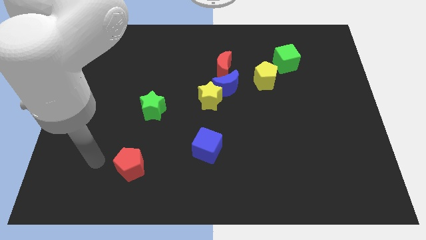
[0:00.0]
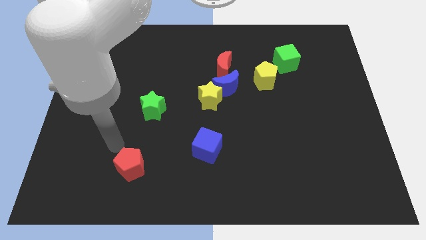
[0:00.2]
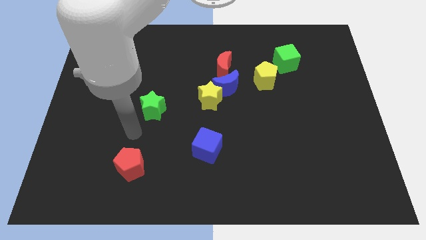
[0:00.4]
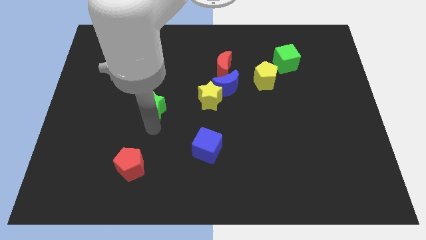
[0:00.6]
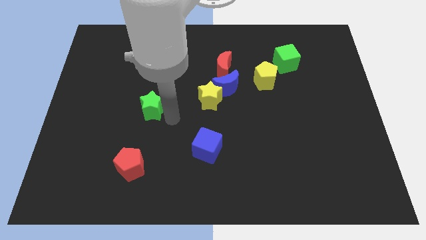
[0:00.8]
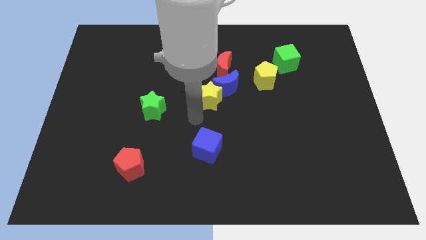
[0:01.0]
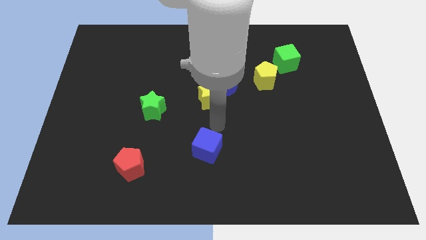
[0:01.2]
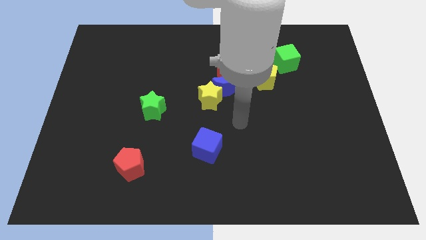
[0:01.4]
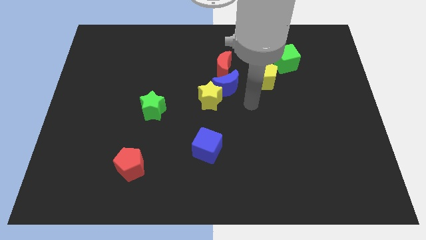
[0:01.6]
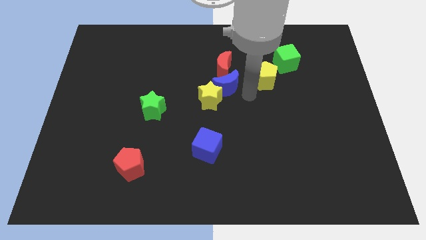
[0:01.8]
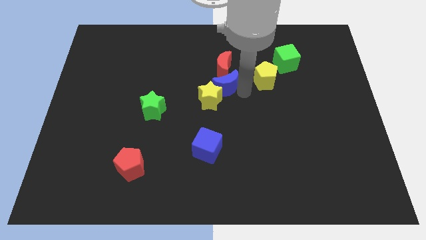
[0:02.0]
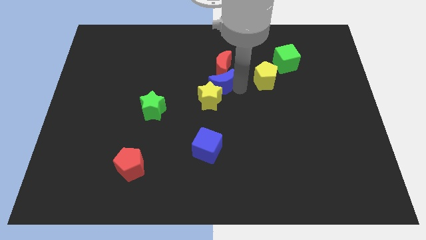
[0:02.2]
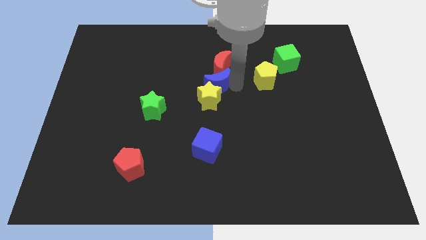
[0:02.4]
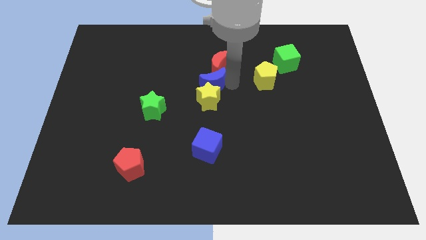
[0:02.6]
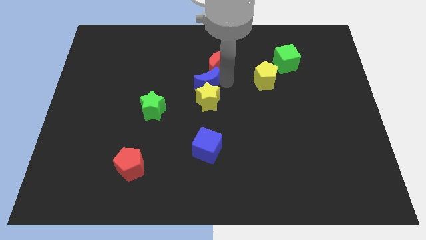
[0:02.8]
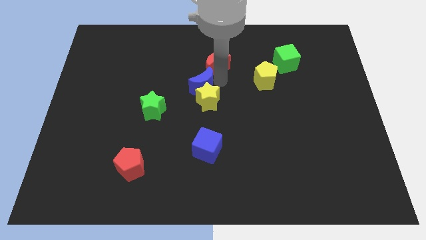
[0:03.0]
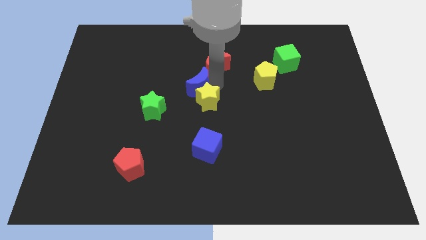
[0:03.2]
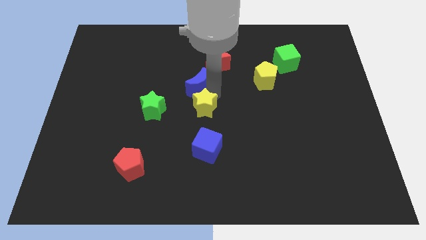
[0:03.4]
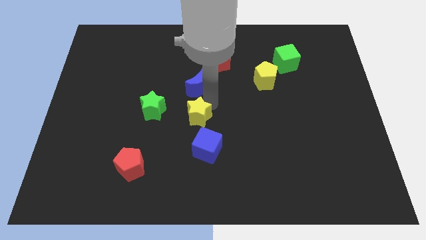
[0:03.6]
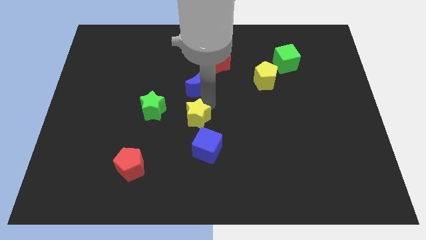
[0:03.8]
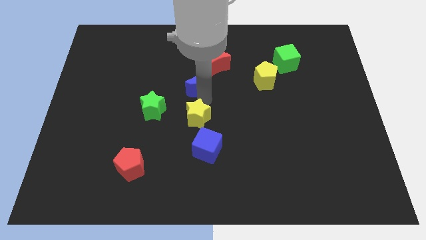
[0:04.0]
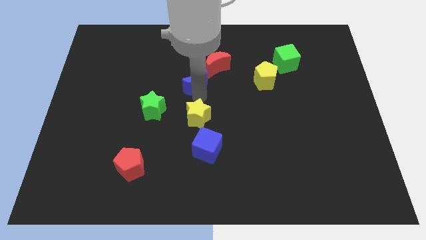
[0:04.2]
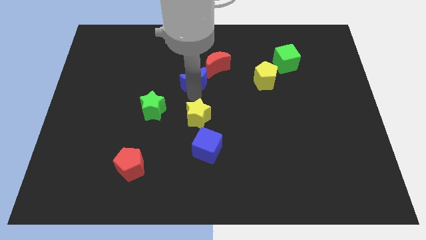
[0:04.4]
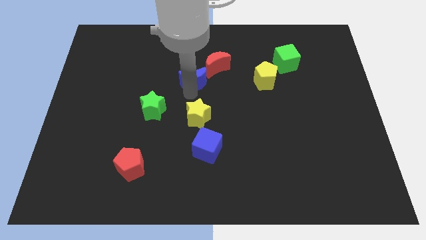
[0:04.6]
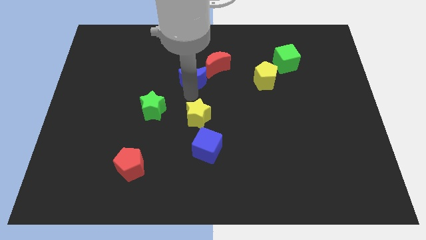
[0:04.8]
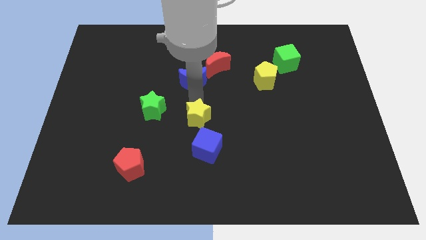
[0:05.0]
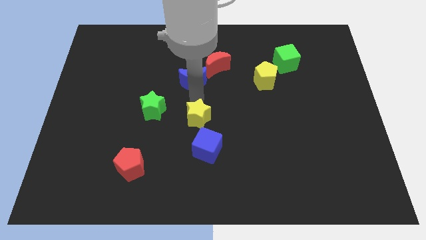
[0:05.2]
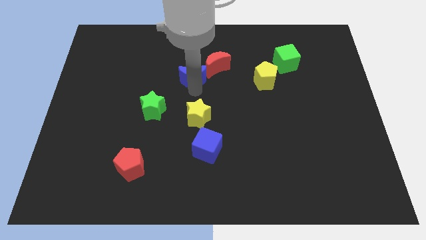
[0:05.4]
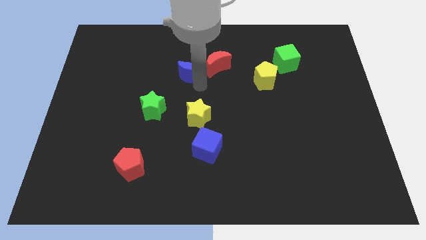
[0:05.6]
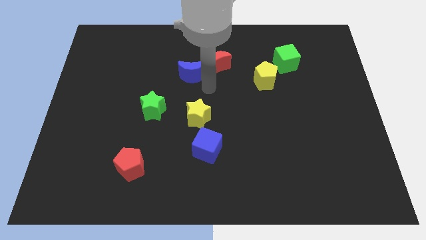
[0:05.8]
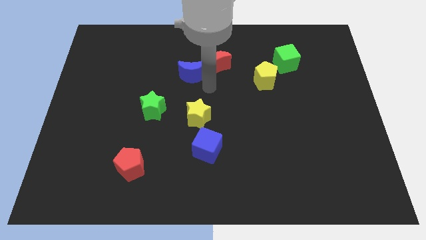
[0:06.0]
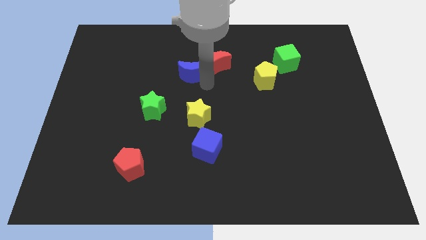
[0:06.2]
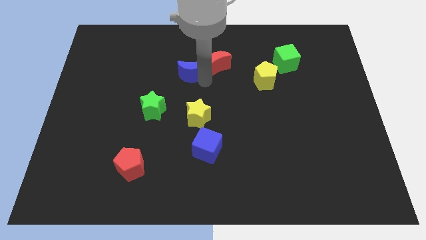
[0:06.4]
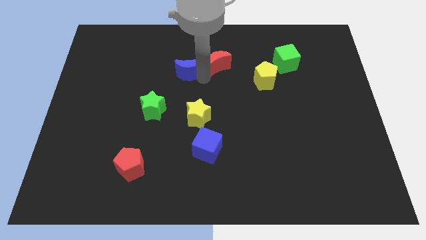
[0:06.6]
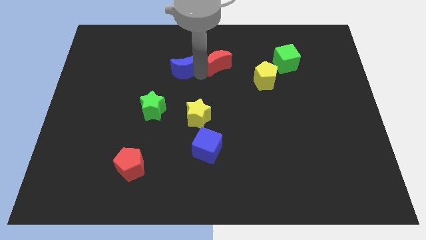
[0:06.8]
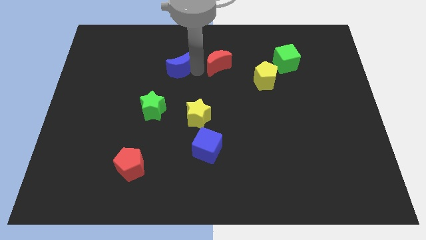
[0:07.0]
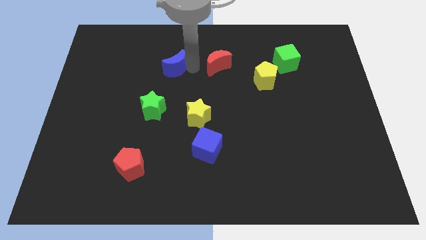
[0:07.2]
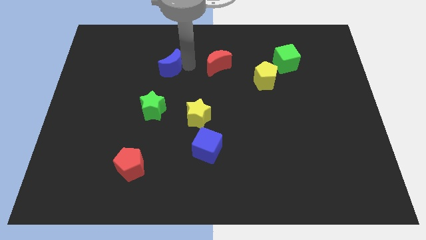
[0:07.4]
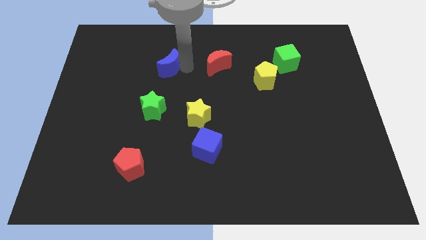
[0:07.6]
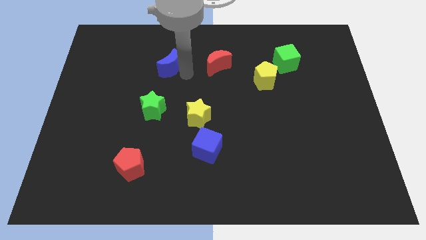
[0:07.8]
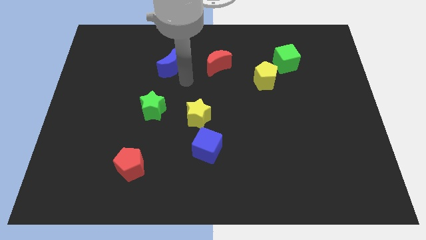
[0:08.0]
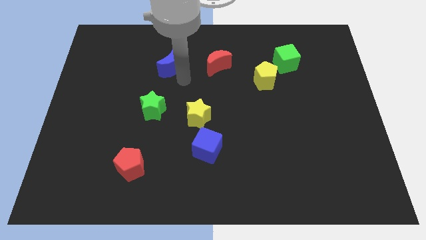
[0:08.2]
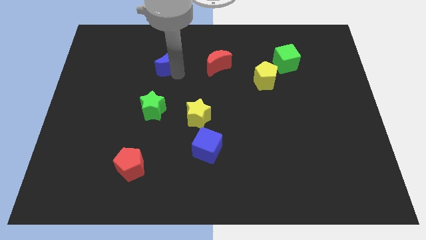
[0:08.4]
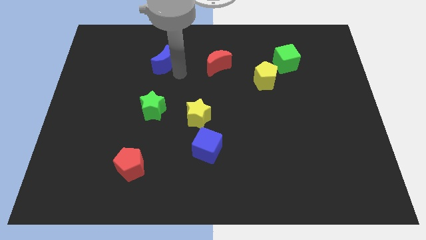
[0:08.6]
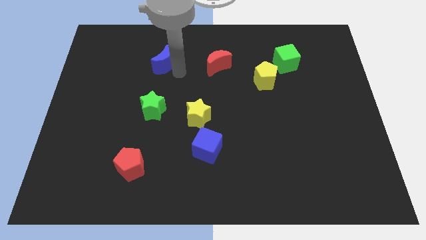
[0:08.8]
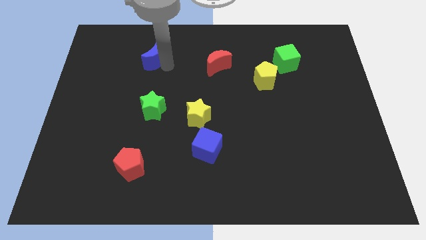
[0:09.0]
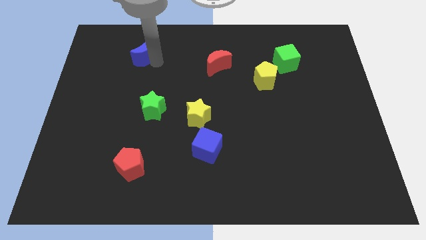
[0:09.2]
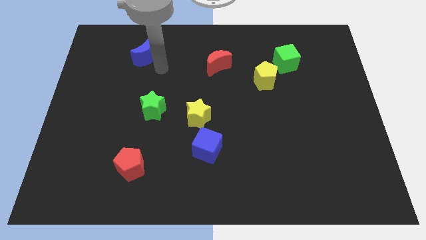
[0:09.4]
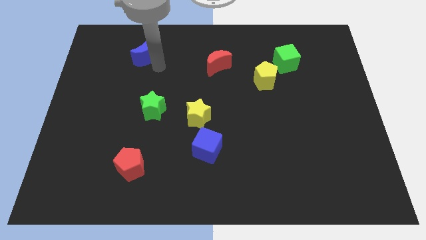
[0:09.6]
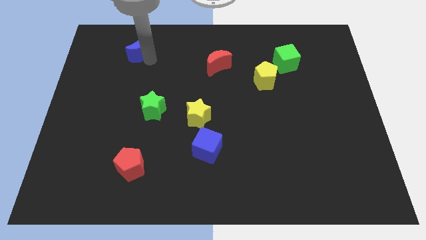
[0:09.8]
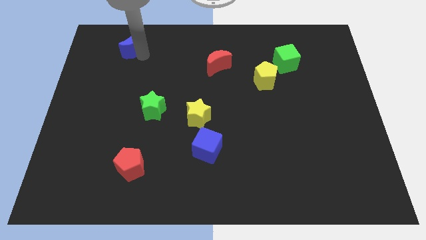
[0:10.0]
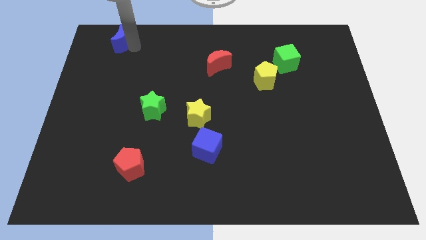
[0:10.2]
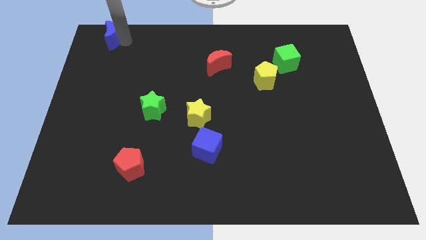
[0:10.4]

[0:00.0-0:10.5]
slide the blue moon to the top left of the board

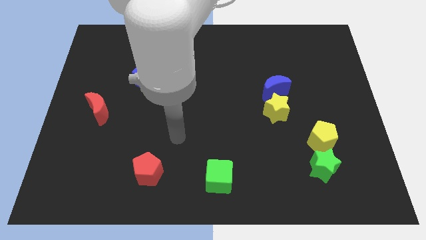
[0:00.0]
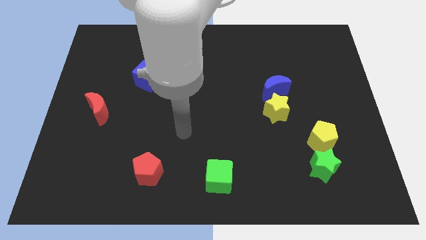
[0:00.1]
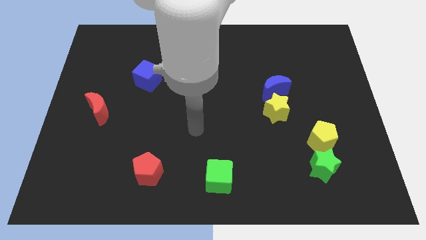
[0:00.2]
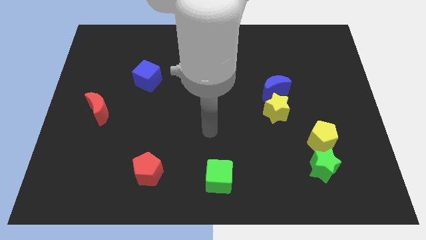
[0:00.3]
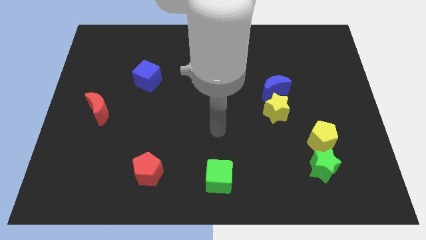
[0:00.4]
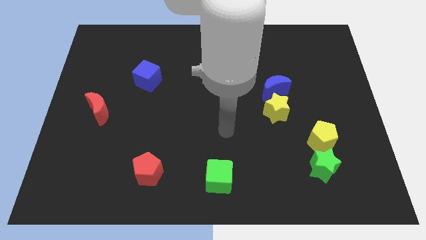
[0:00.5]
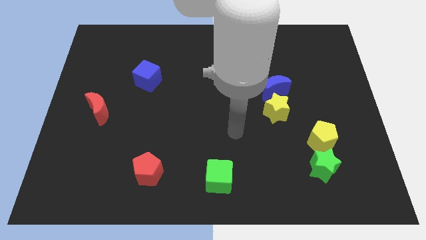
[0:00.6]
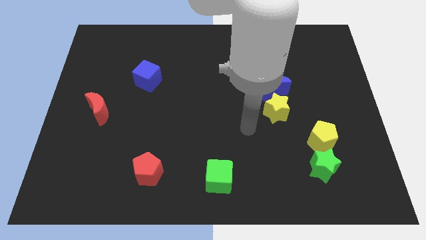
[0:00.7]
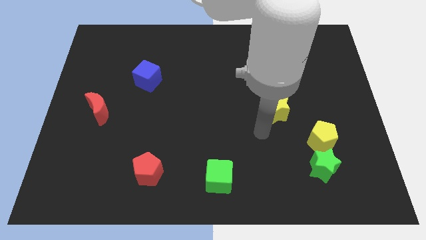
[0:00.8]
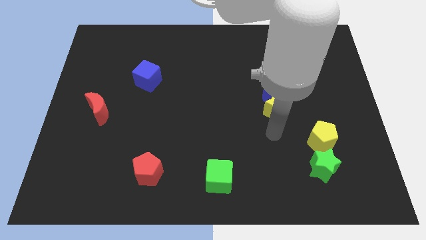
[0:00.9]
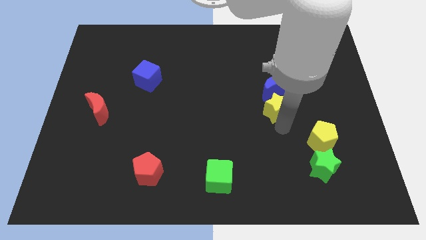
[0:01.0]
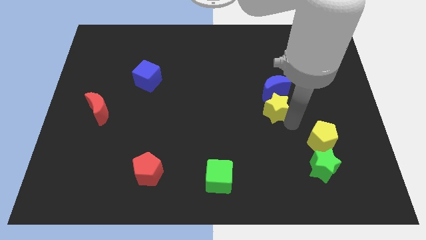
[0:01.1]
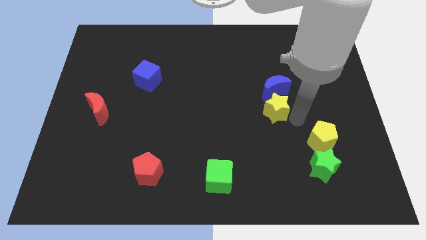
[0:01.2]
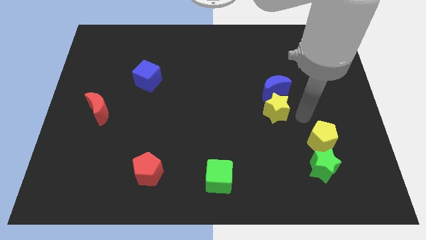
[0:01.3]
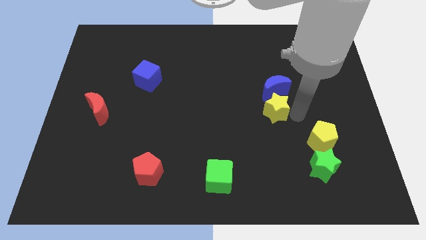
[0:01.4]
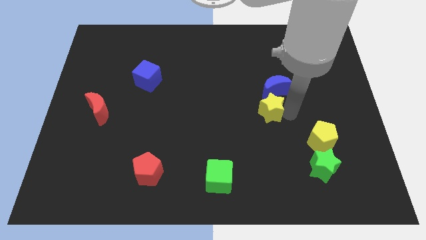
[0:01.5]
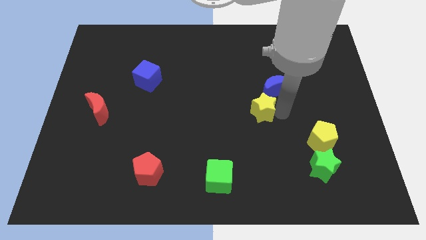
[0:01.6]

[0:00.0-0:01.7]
push the yellow star to the center of the board
